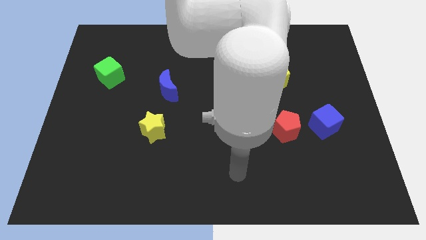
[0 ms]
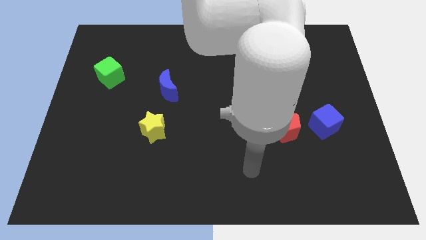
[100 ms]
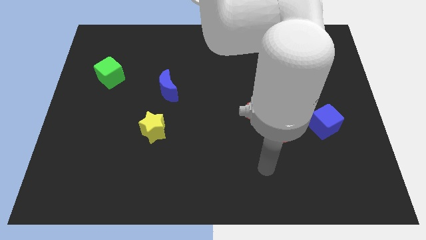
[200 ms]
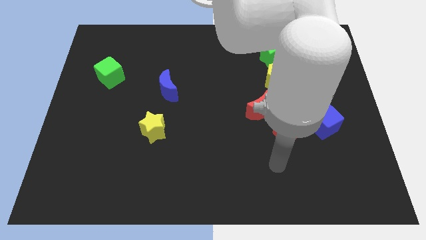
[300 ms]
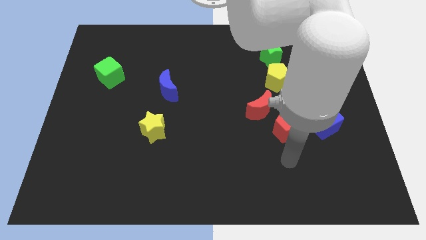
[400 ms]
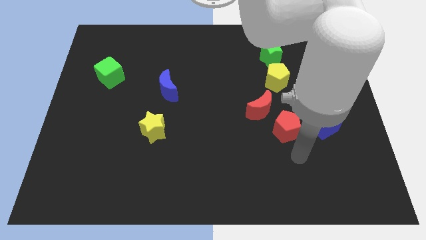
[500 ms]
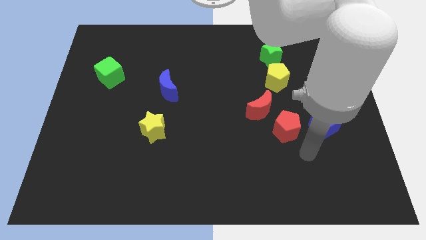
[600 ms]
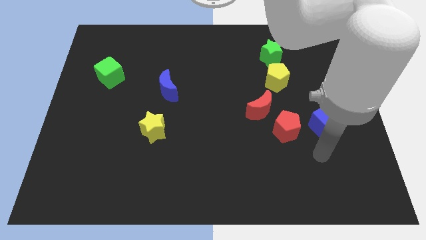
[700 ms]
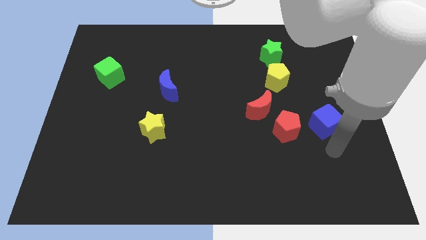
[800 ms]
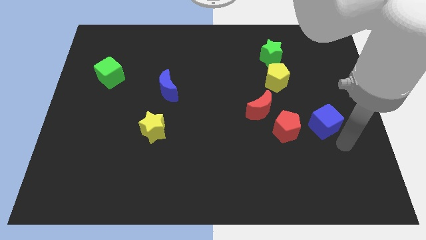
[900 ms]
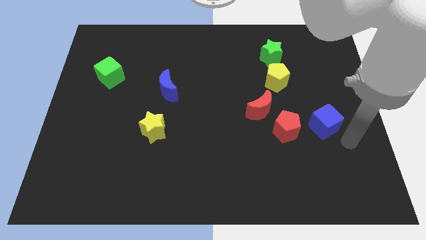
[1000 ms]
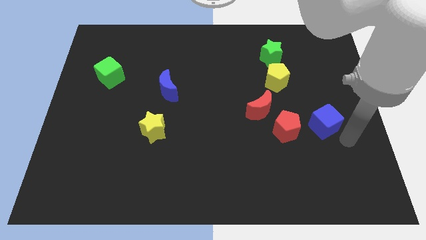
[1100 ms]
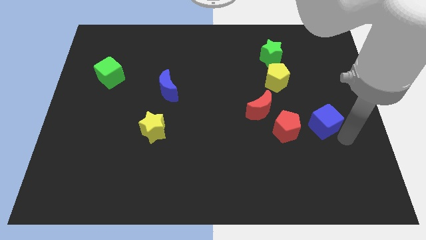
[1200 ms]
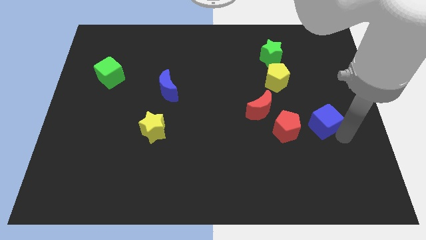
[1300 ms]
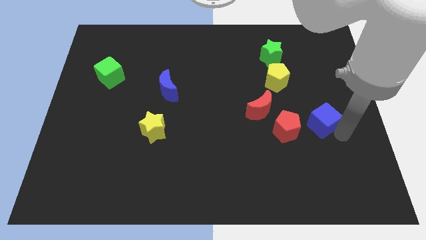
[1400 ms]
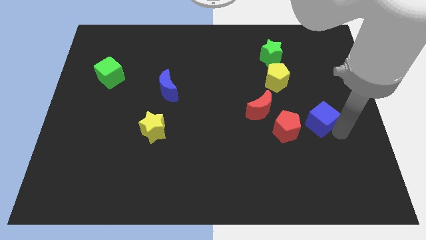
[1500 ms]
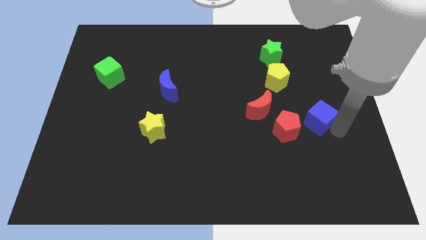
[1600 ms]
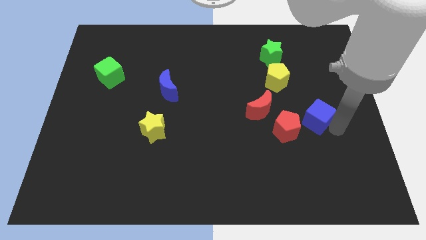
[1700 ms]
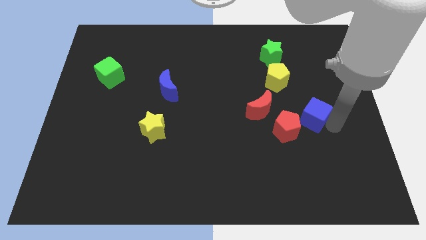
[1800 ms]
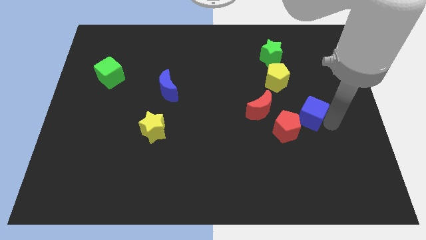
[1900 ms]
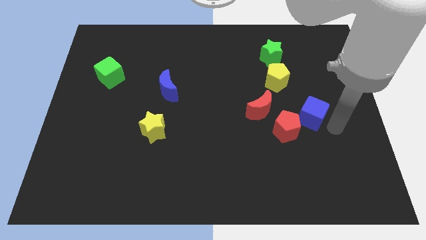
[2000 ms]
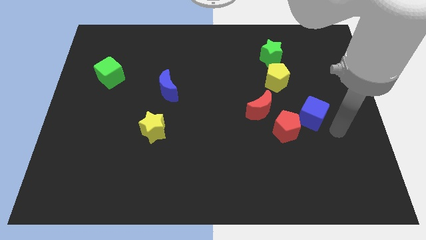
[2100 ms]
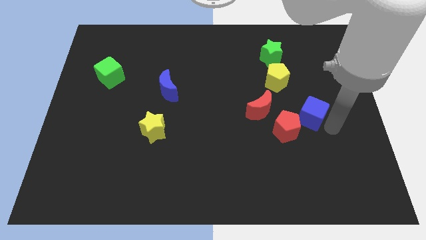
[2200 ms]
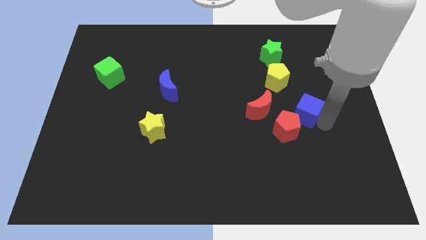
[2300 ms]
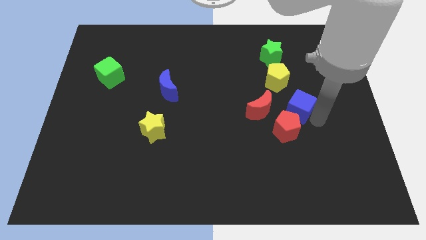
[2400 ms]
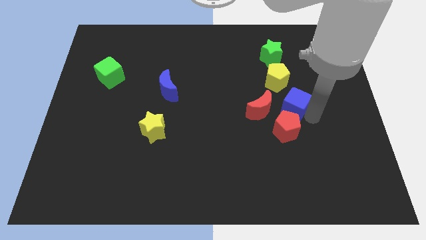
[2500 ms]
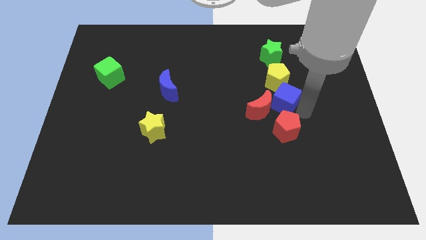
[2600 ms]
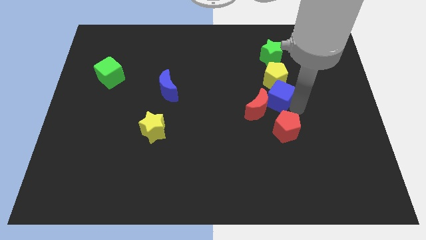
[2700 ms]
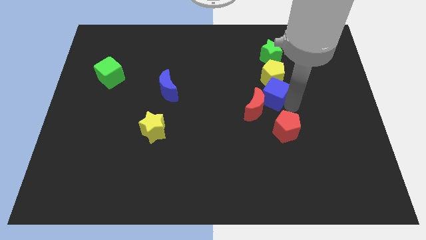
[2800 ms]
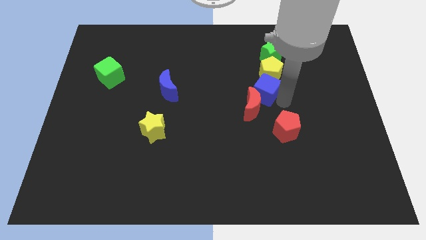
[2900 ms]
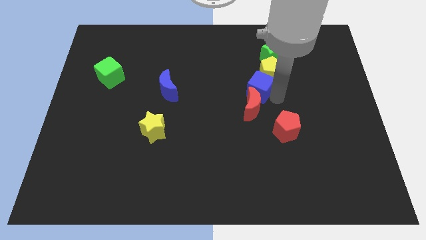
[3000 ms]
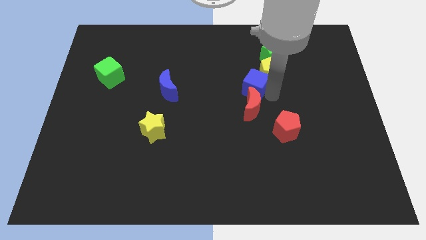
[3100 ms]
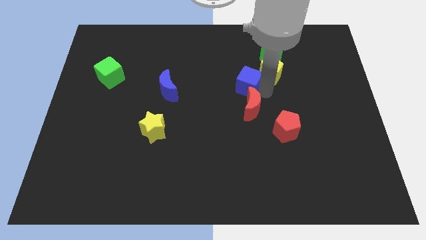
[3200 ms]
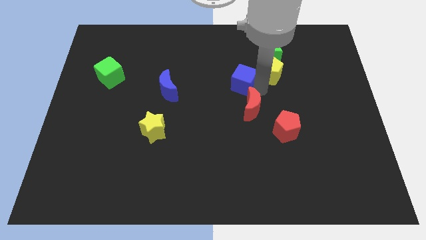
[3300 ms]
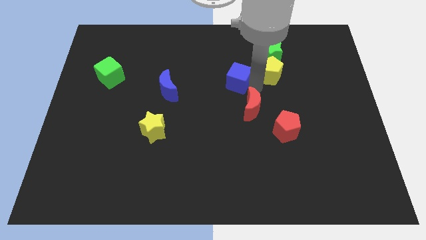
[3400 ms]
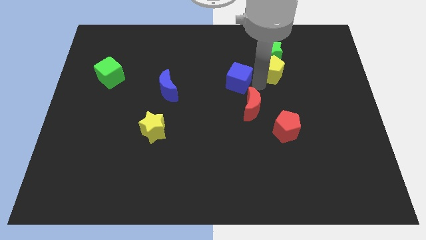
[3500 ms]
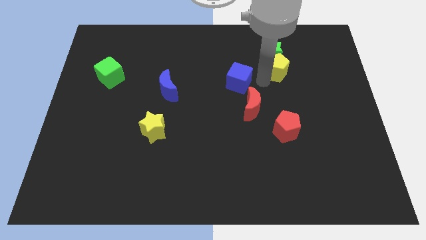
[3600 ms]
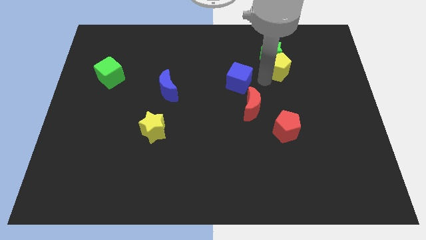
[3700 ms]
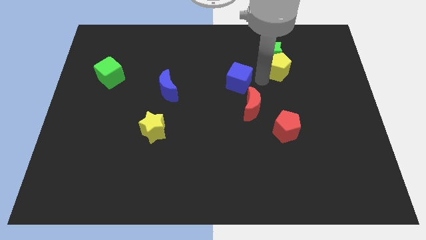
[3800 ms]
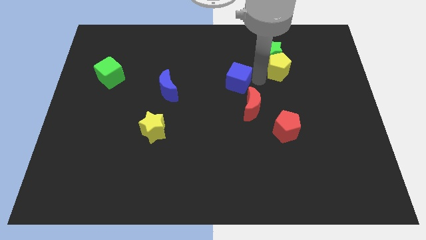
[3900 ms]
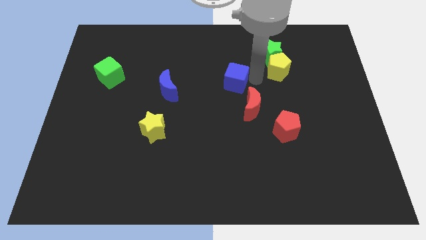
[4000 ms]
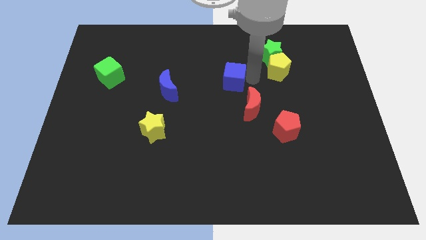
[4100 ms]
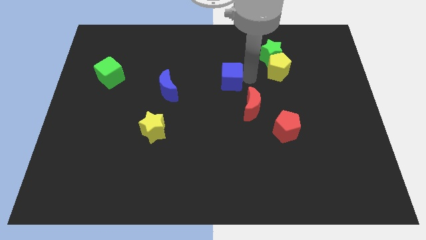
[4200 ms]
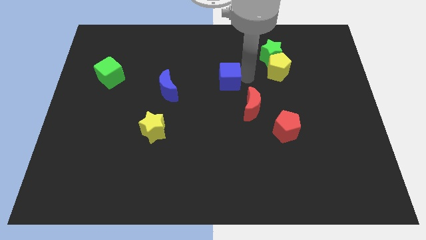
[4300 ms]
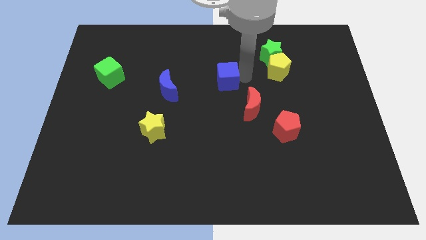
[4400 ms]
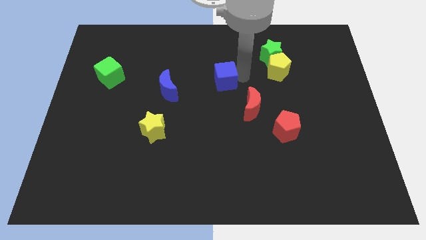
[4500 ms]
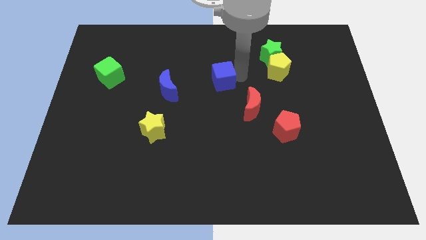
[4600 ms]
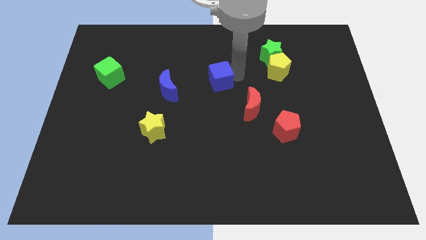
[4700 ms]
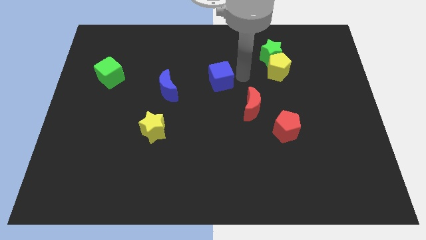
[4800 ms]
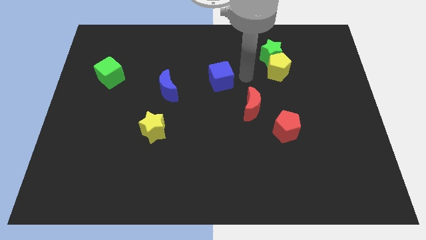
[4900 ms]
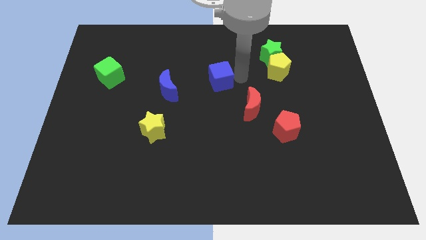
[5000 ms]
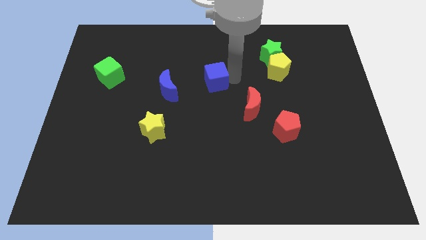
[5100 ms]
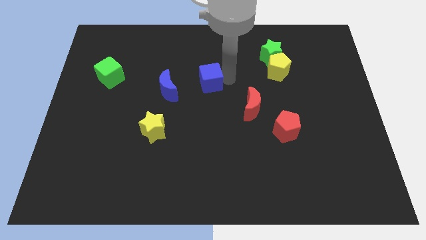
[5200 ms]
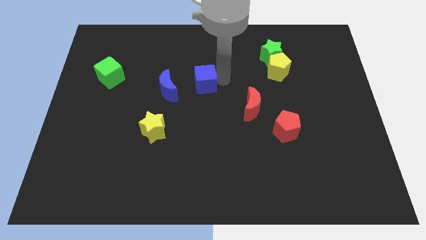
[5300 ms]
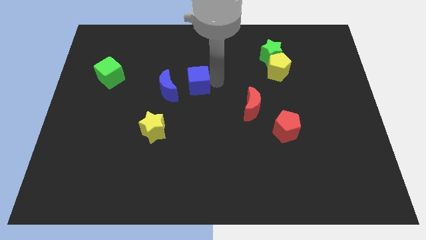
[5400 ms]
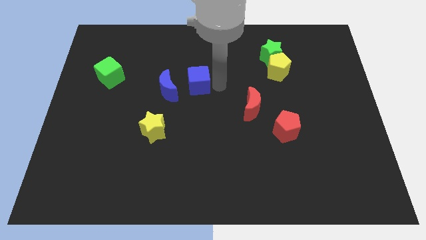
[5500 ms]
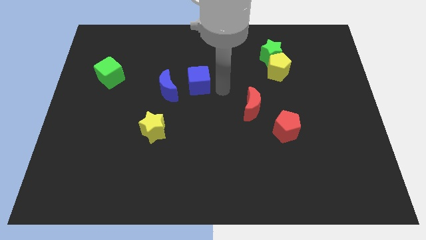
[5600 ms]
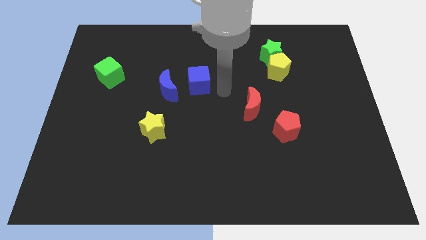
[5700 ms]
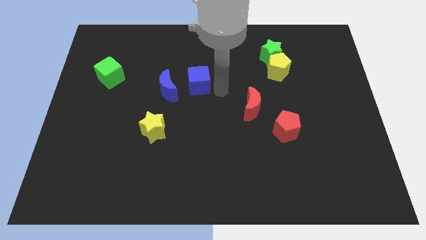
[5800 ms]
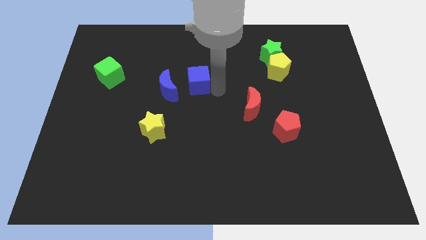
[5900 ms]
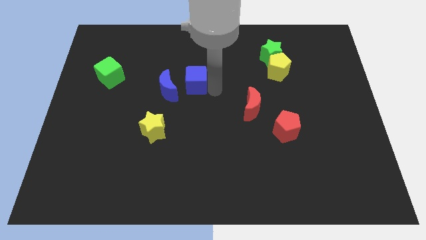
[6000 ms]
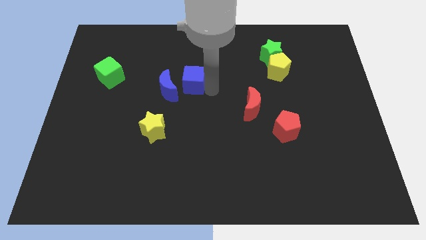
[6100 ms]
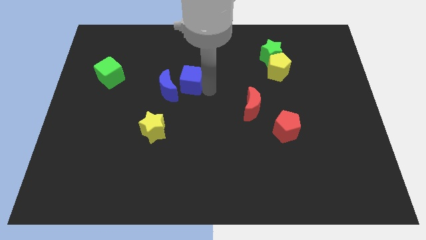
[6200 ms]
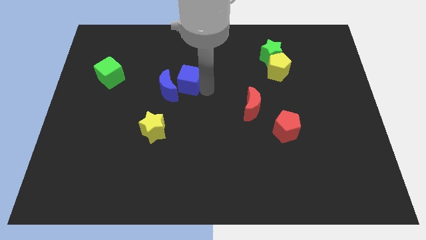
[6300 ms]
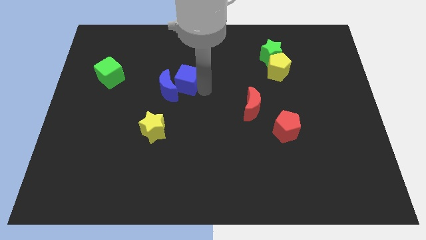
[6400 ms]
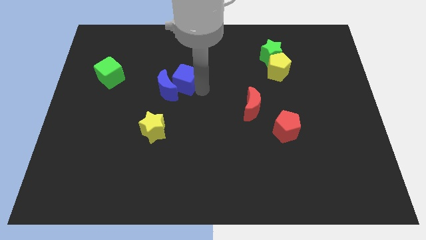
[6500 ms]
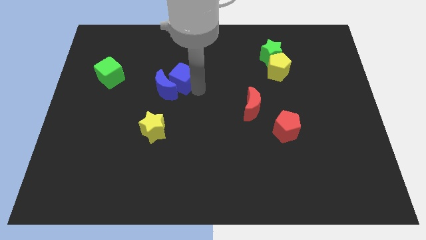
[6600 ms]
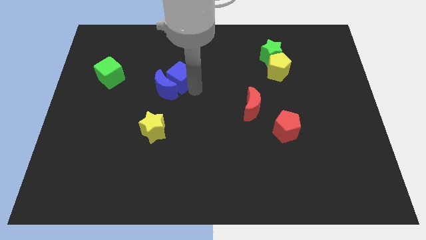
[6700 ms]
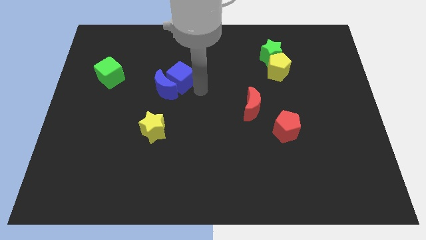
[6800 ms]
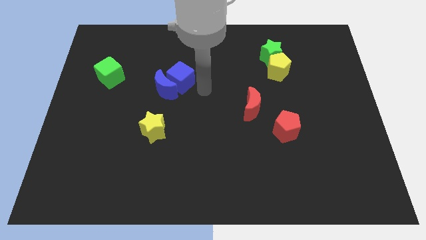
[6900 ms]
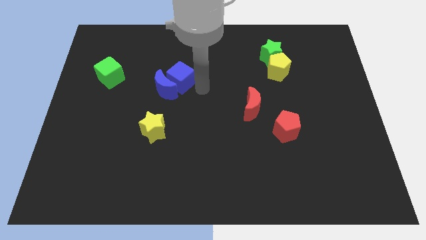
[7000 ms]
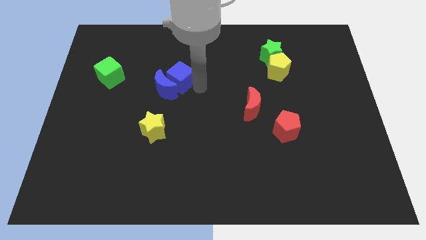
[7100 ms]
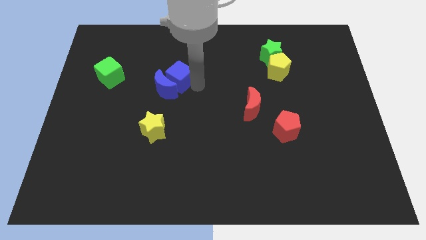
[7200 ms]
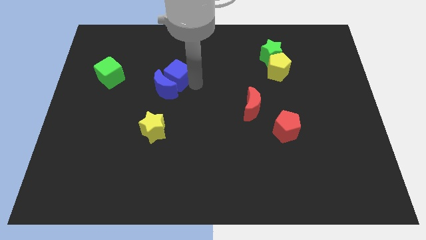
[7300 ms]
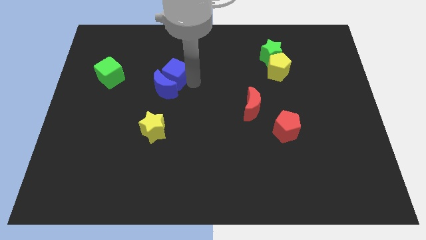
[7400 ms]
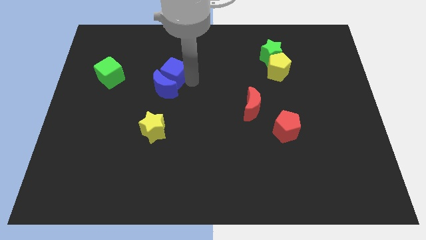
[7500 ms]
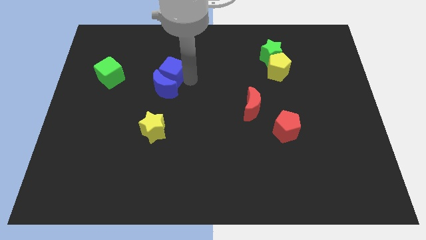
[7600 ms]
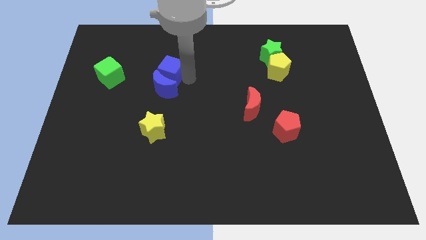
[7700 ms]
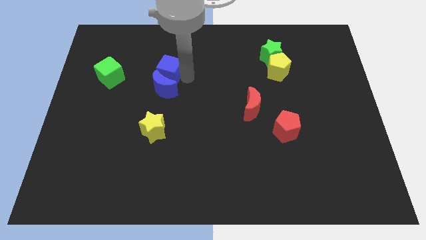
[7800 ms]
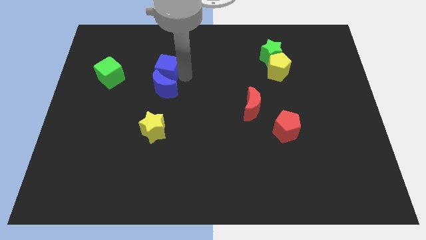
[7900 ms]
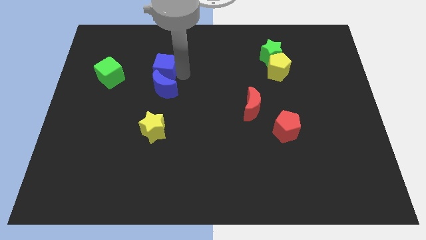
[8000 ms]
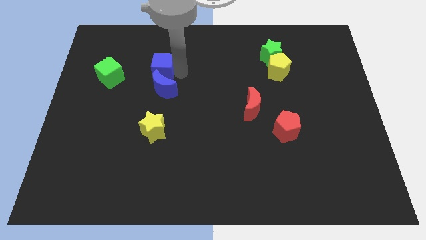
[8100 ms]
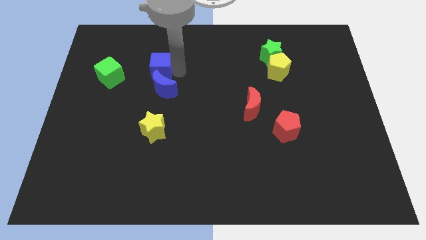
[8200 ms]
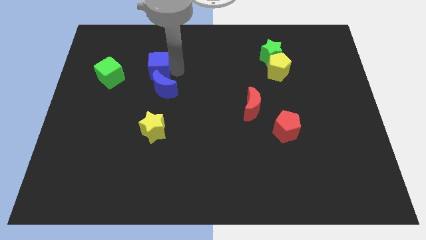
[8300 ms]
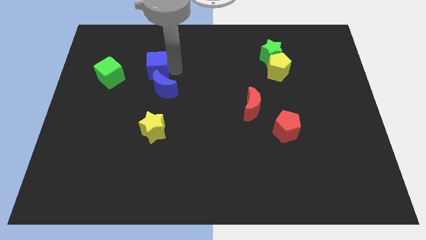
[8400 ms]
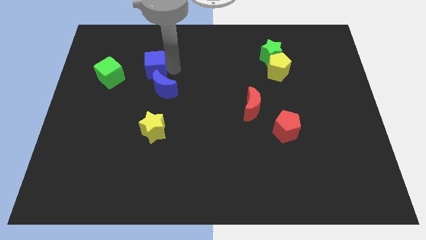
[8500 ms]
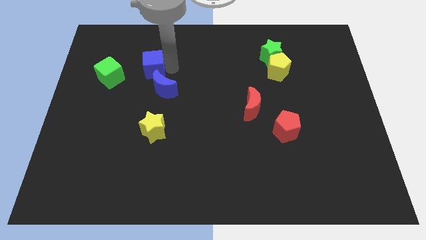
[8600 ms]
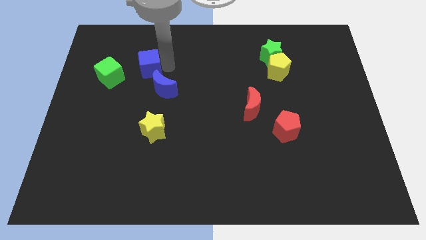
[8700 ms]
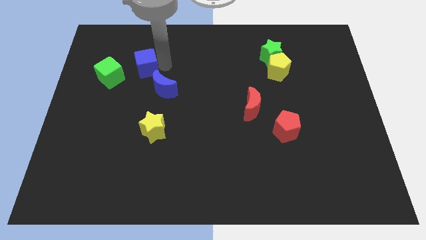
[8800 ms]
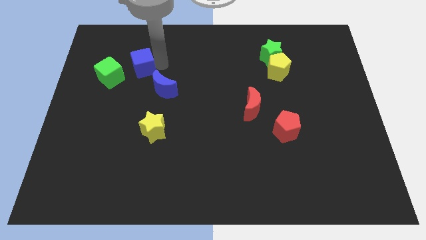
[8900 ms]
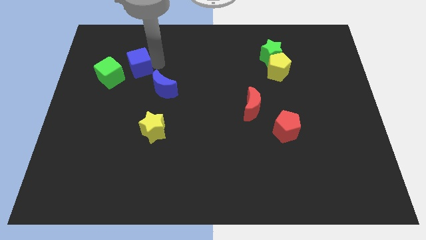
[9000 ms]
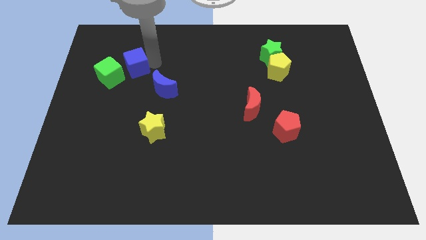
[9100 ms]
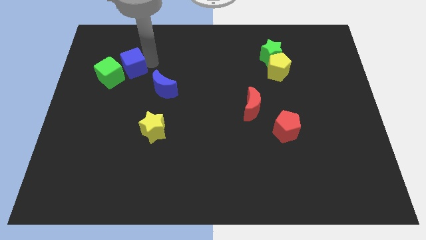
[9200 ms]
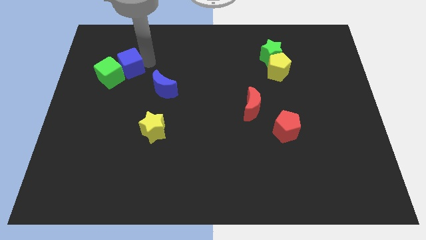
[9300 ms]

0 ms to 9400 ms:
slide the blue cube to the green cube
